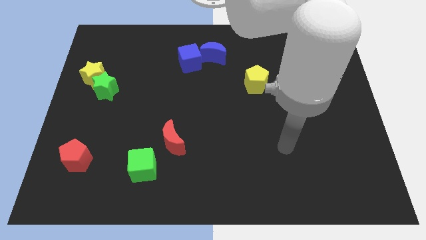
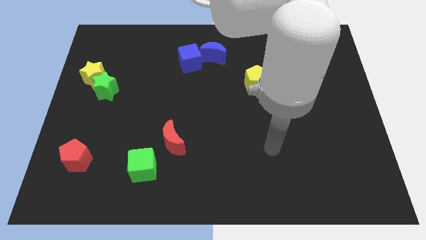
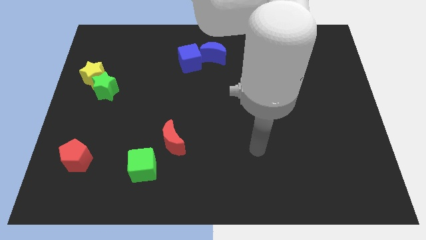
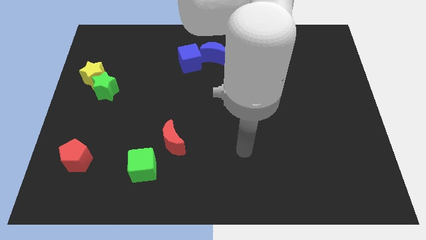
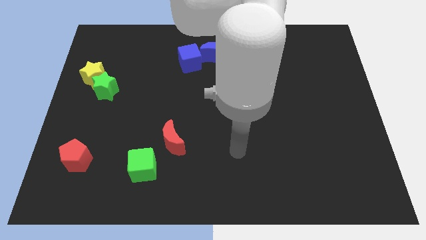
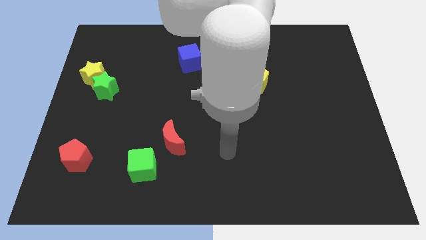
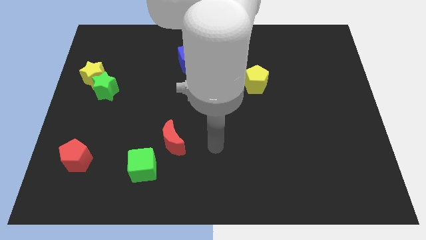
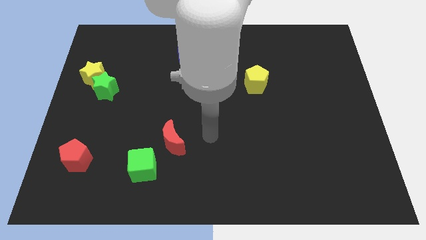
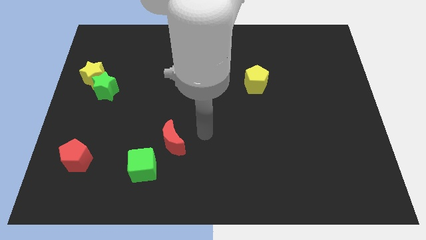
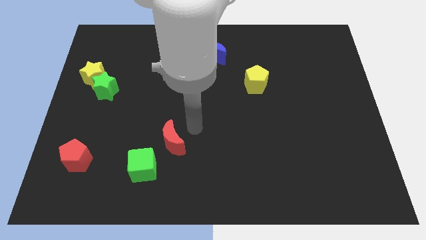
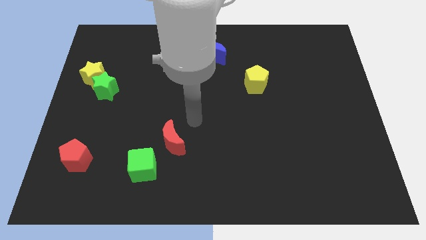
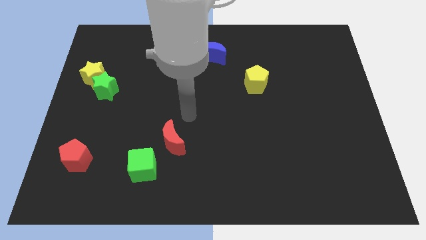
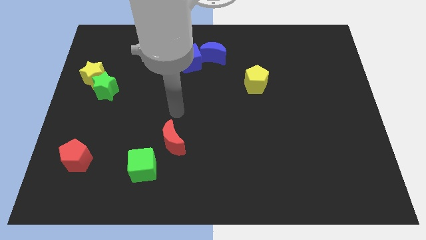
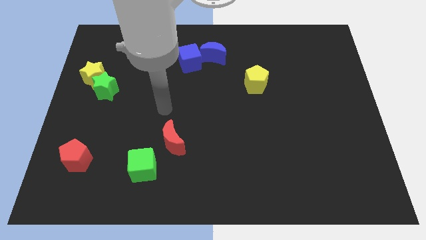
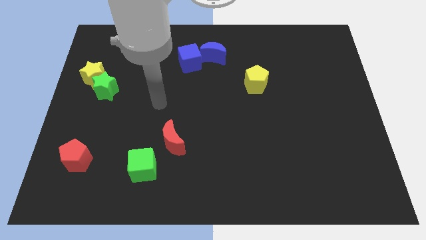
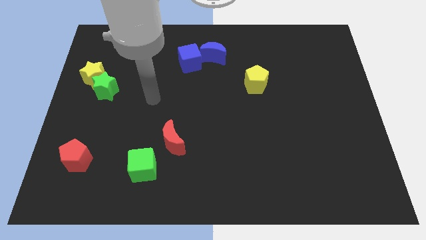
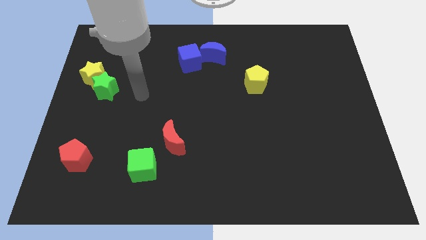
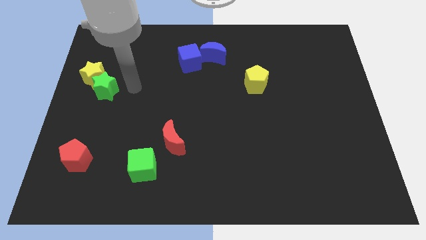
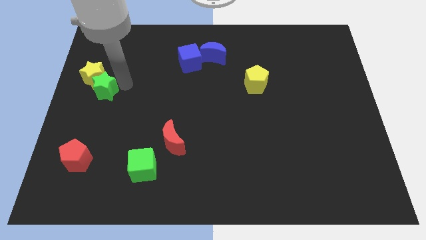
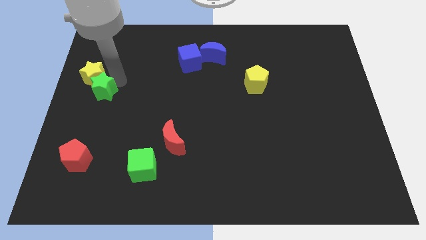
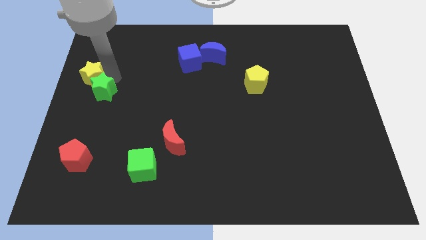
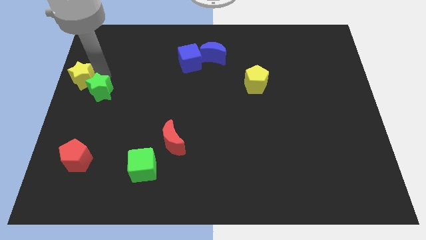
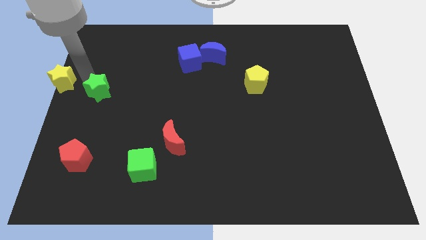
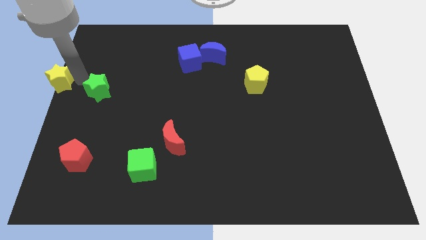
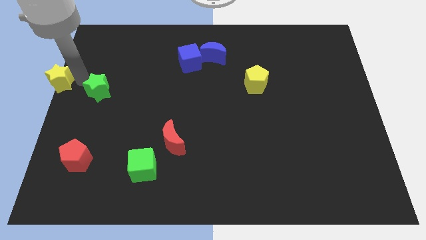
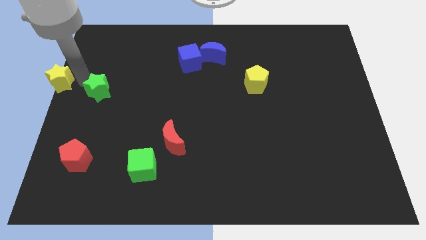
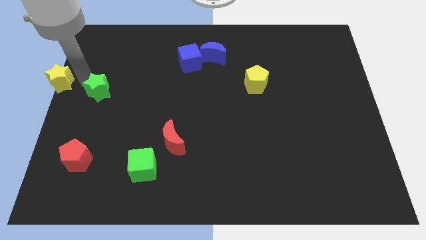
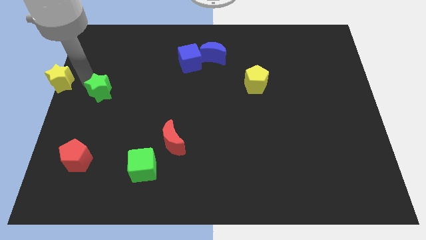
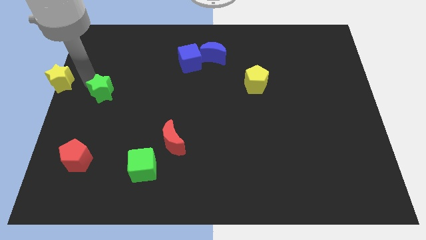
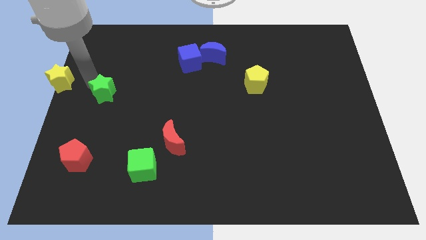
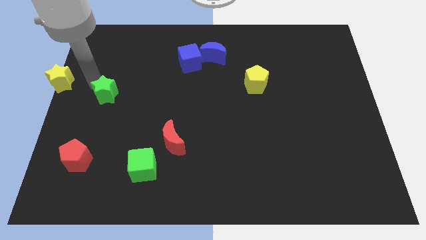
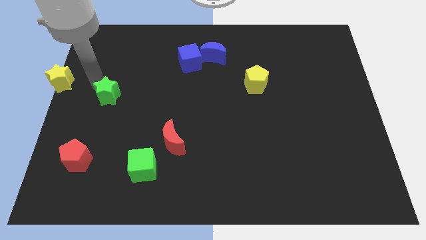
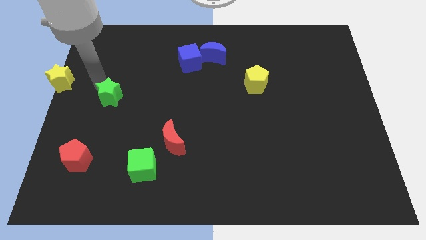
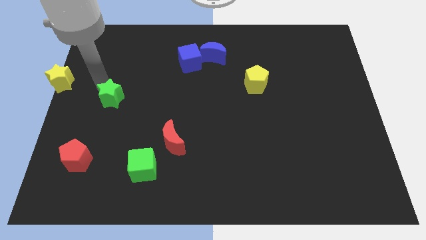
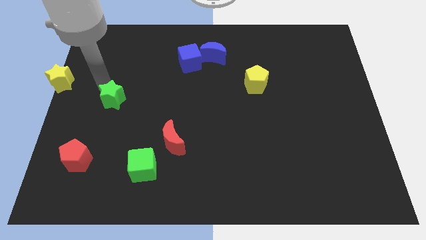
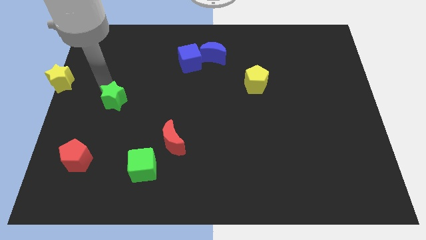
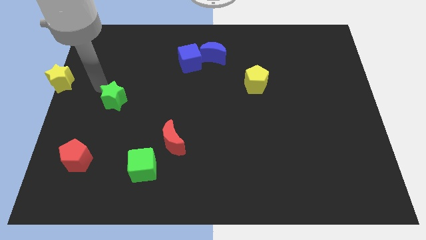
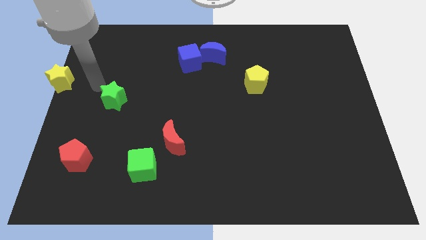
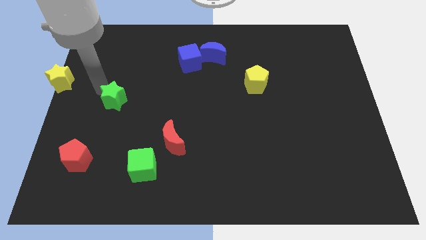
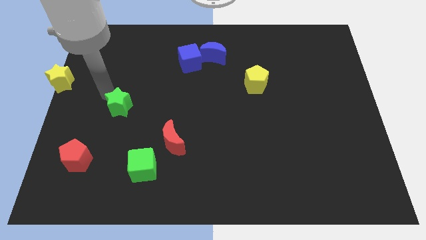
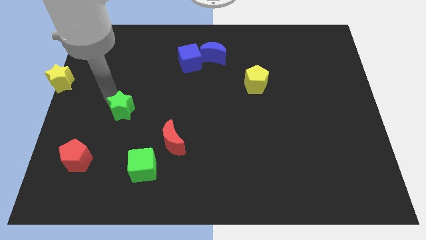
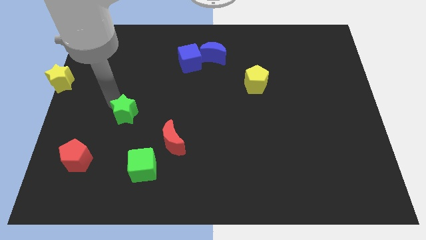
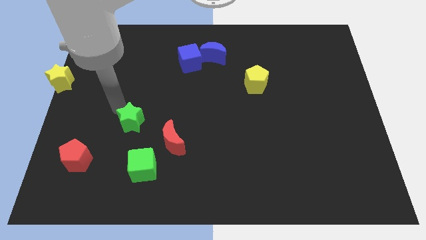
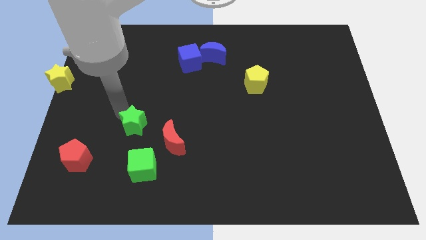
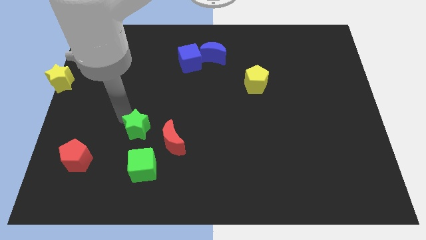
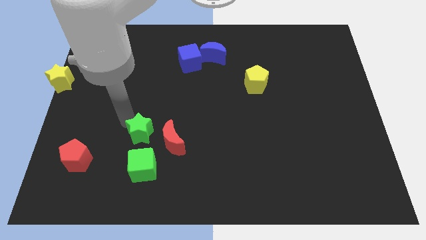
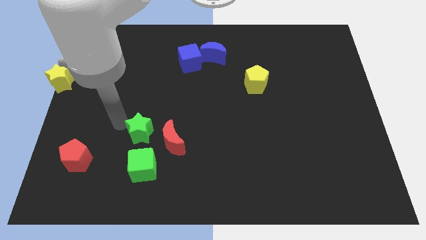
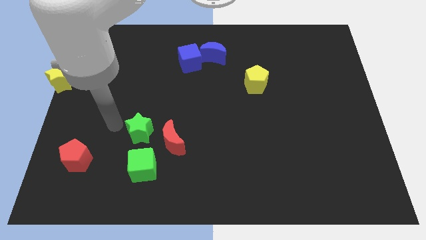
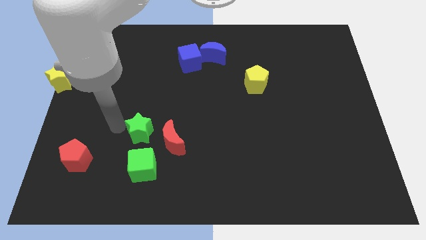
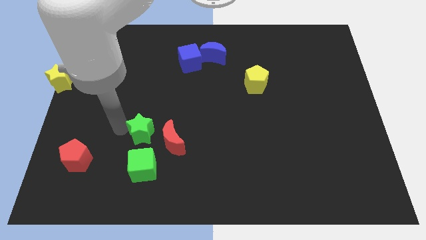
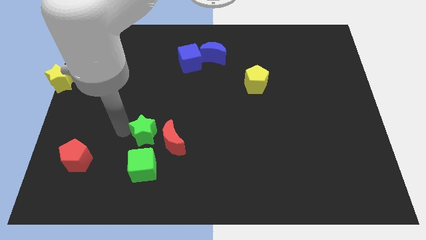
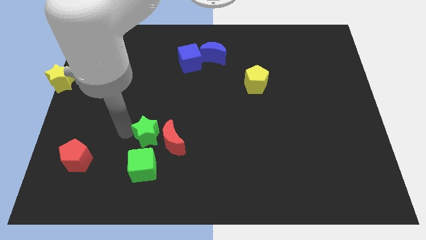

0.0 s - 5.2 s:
move the green star to the red moon
